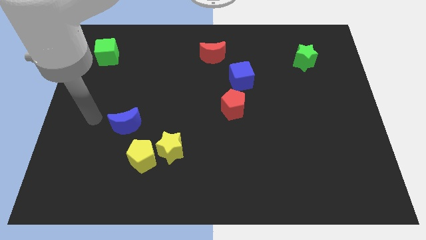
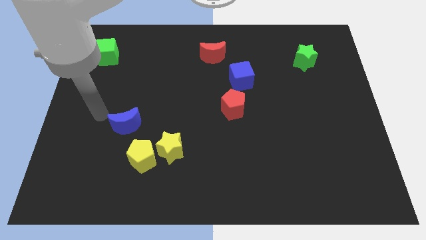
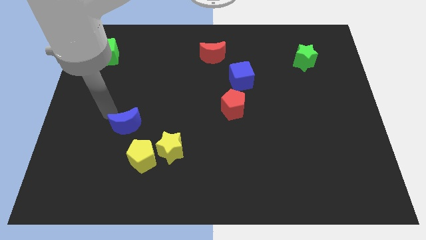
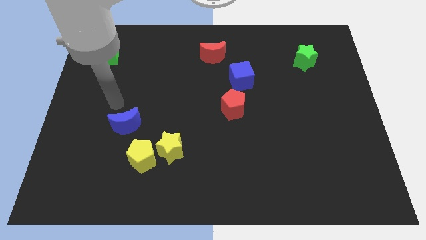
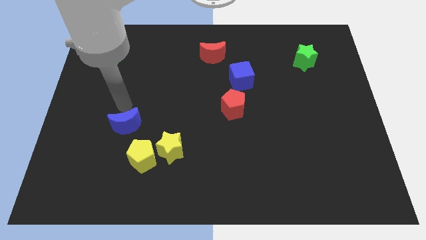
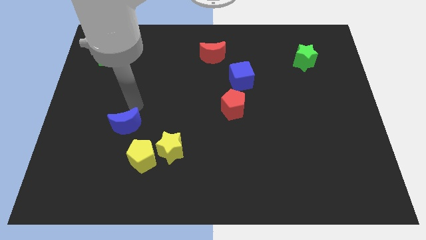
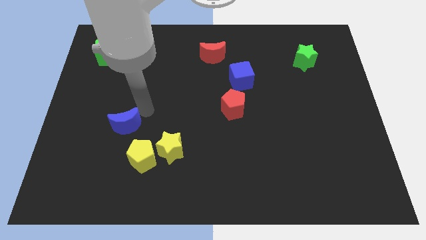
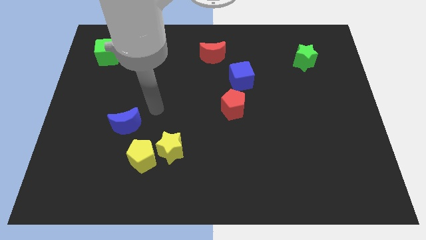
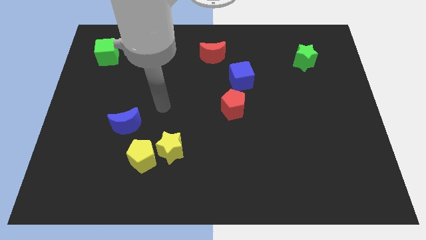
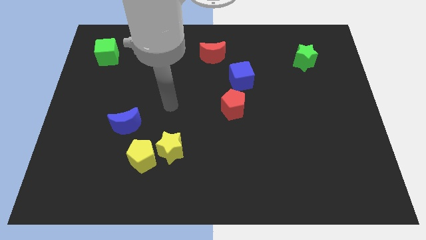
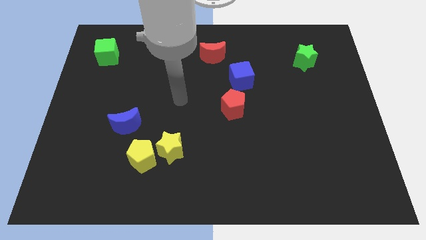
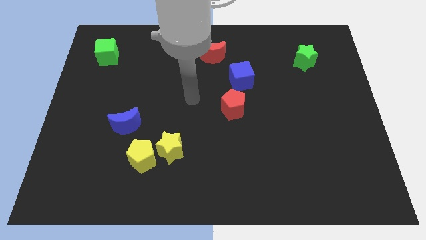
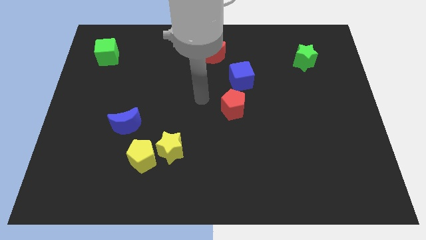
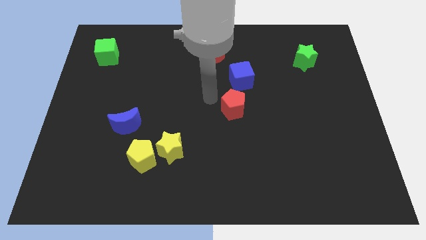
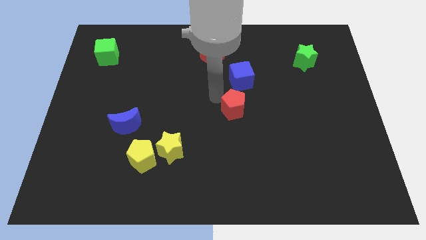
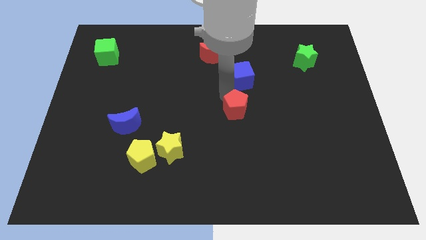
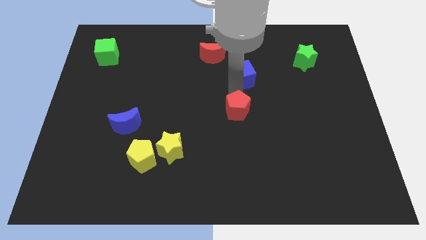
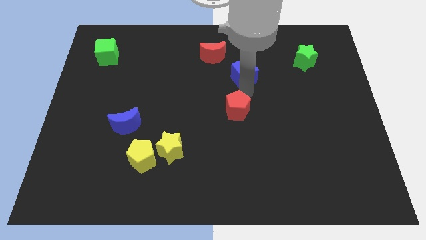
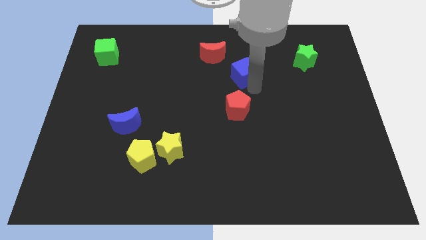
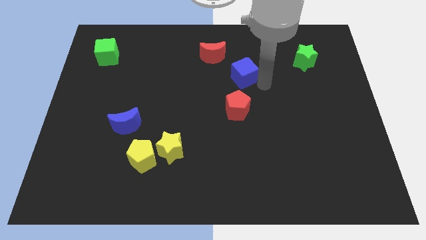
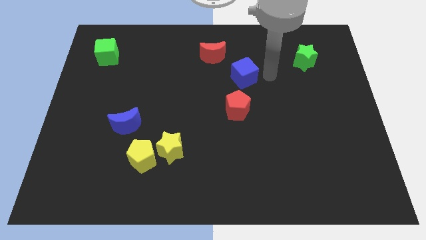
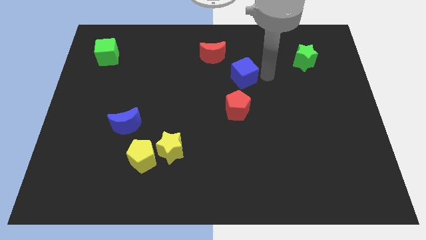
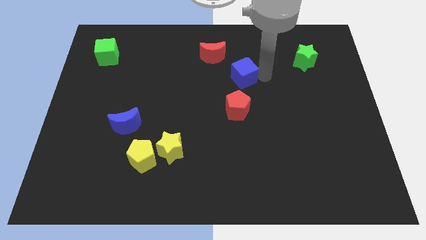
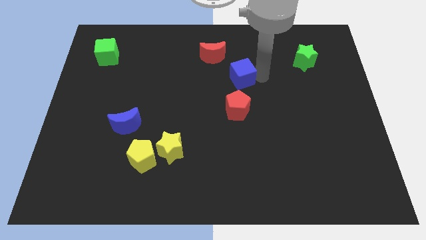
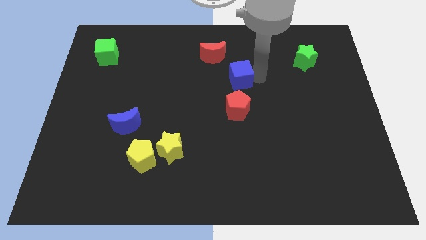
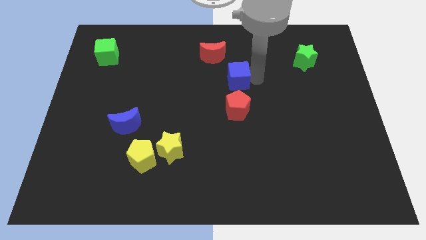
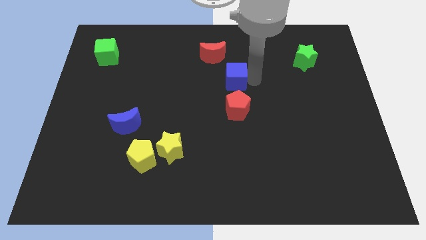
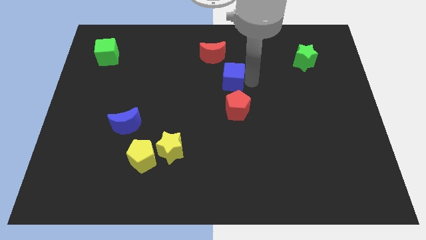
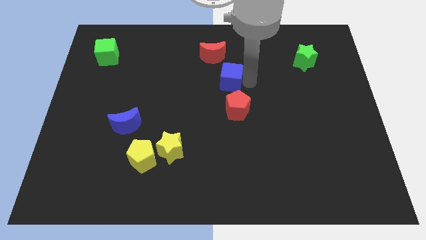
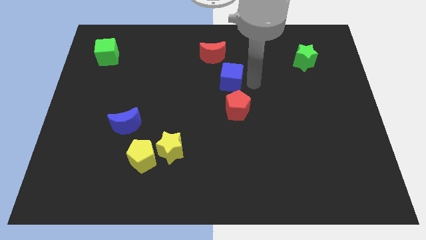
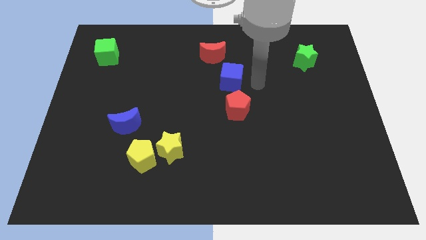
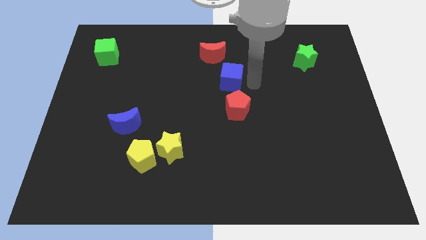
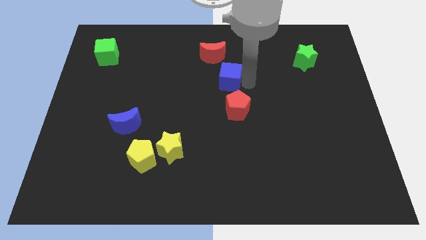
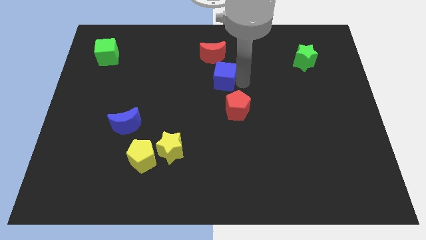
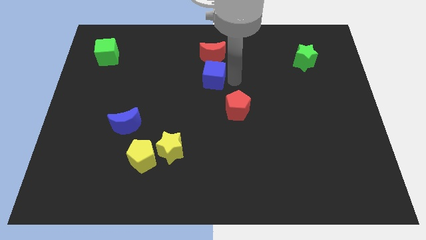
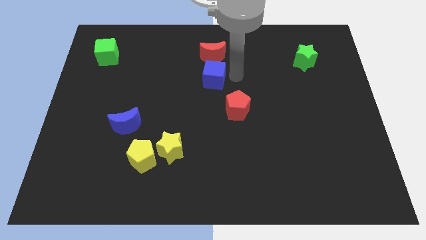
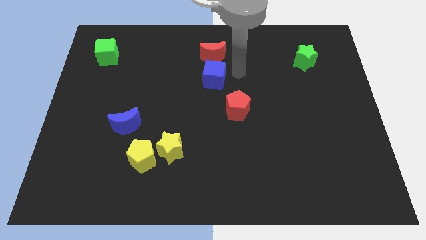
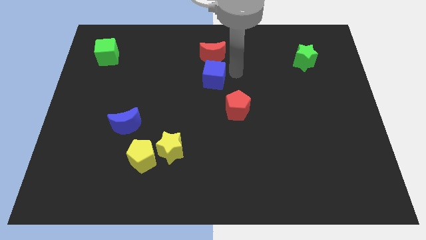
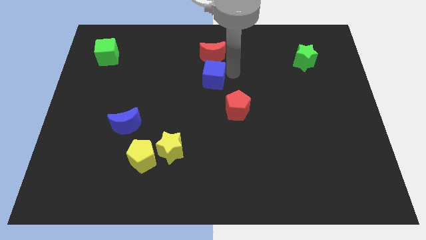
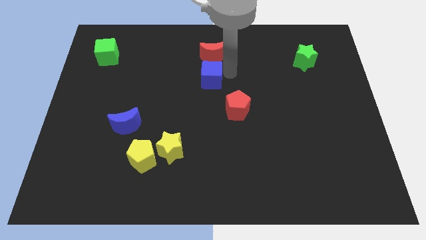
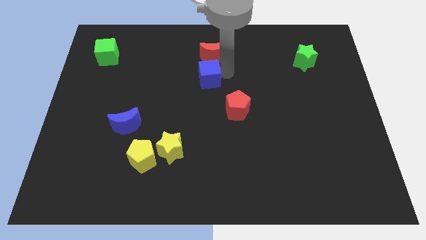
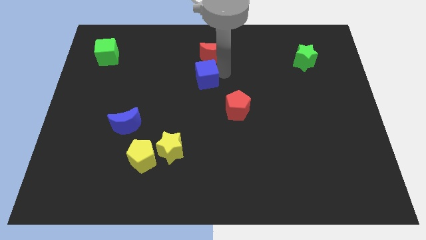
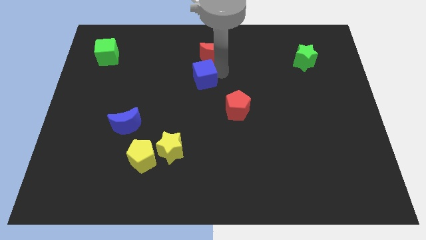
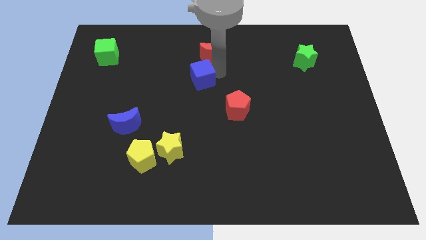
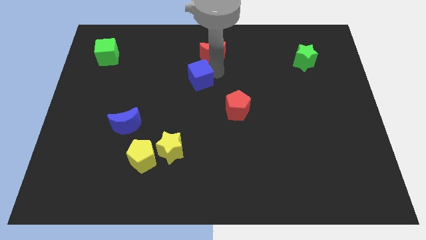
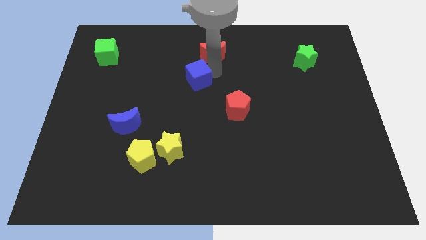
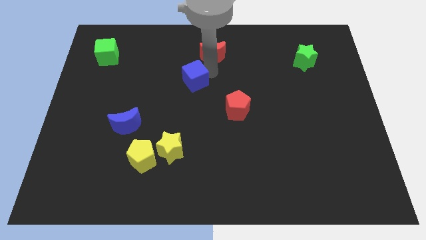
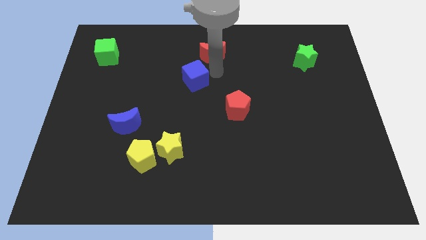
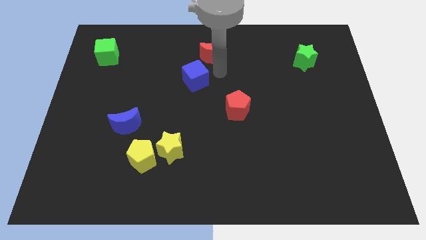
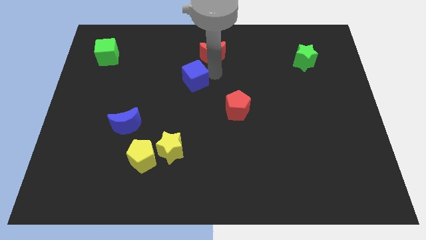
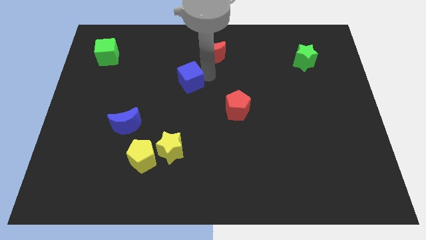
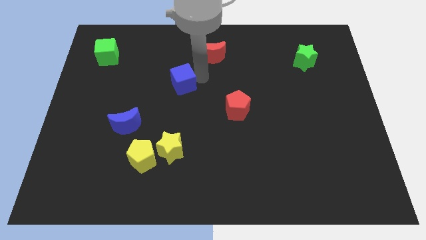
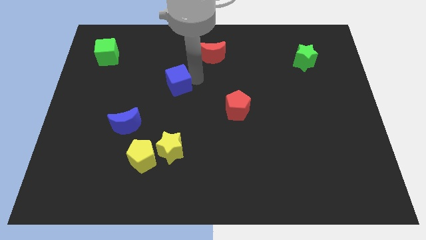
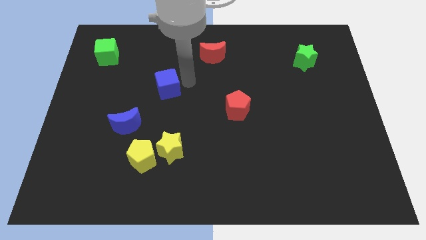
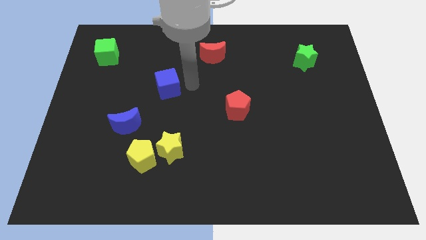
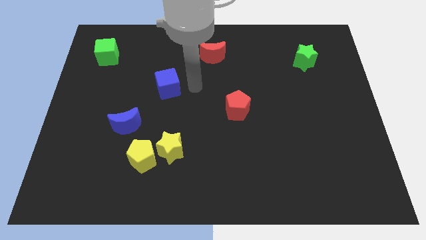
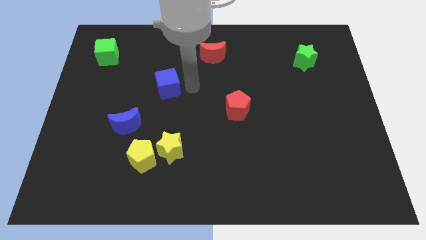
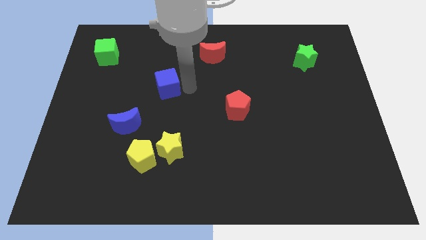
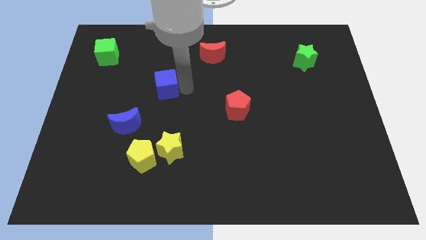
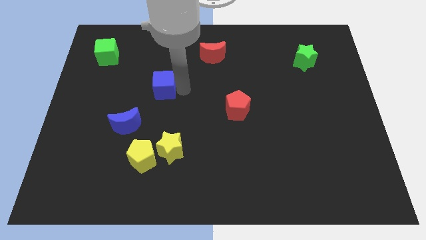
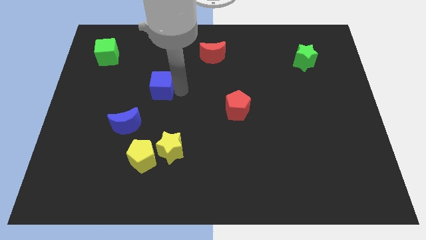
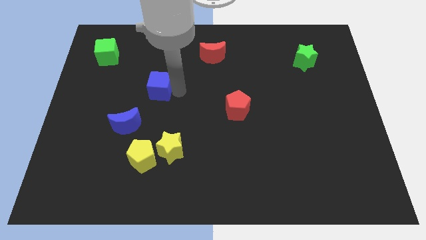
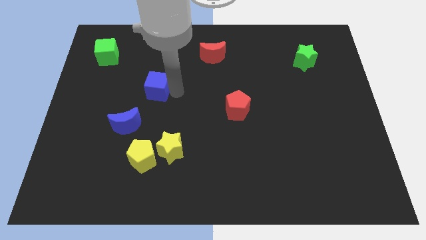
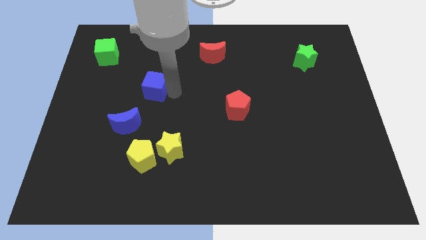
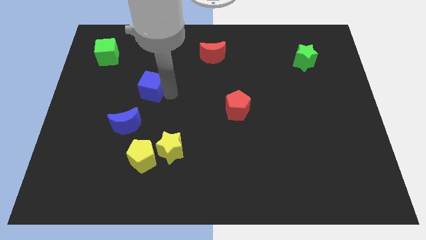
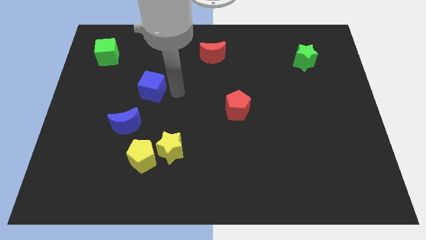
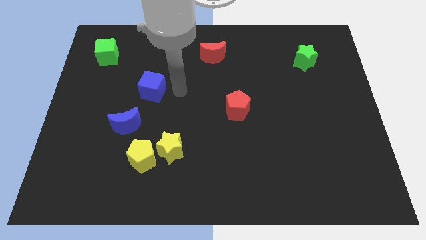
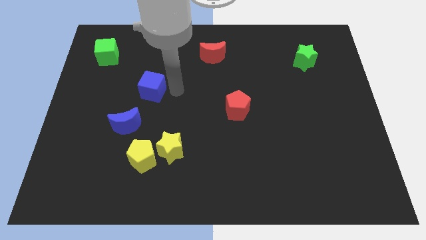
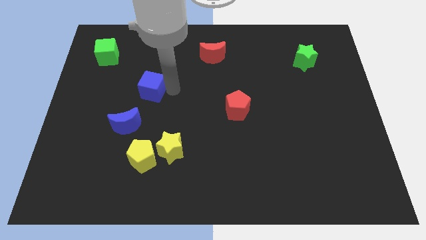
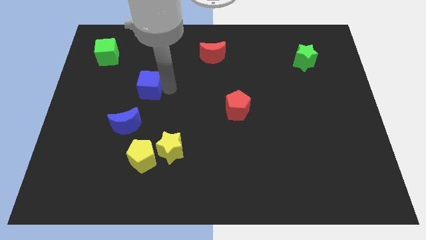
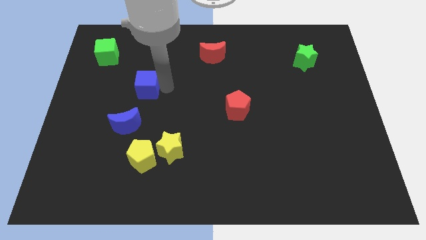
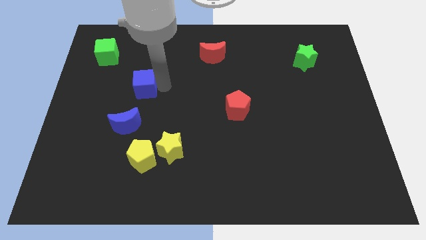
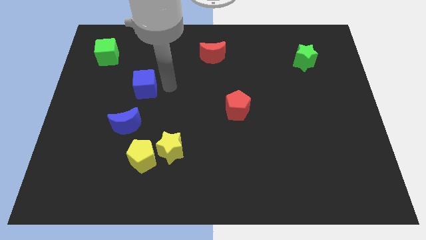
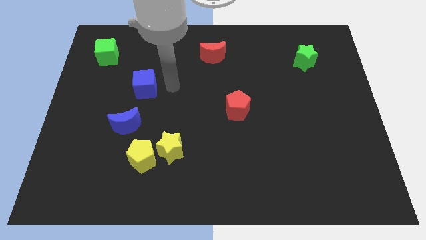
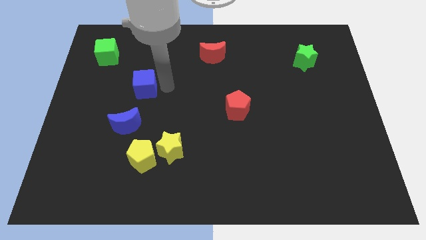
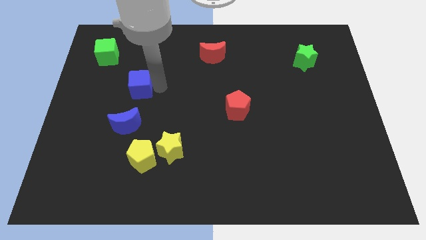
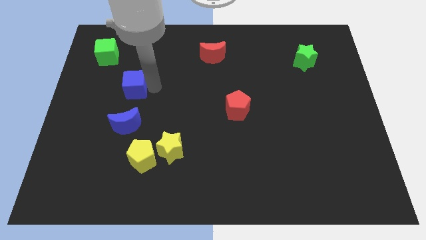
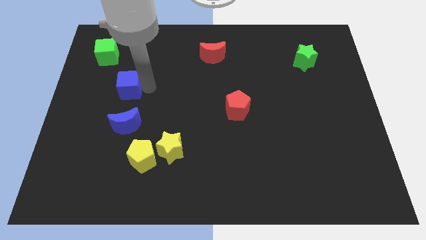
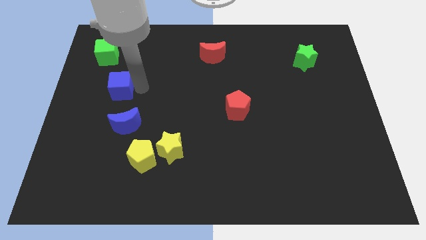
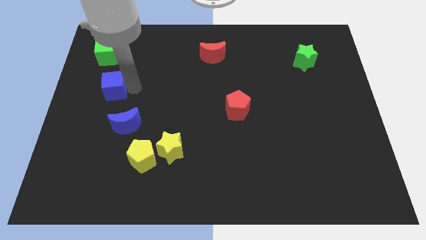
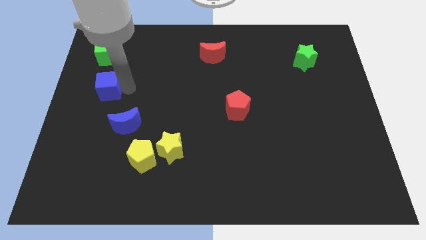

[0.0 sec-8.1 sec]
put the blue cube to the left side
